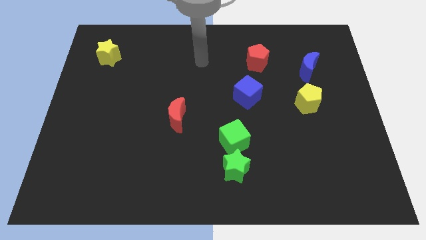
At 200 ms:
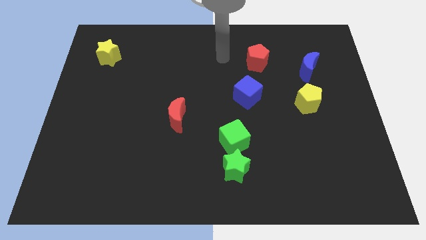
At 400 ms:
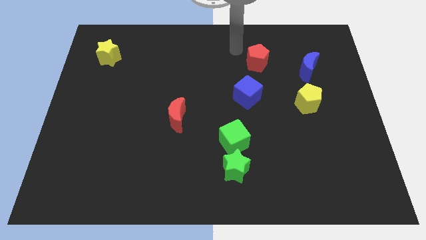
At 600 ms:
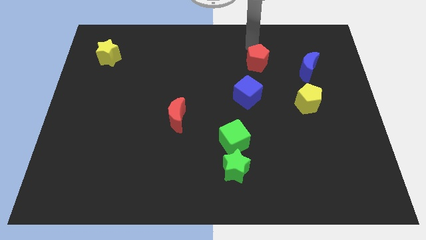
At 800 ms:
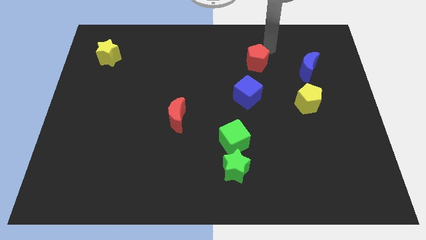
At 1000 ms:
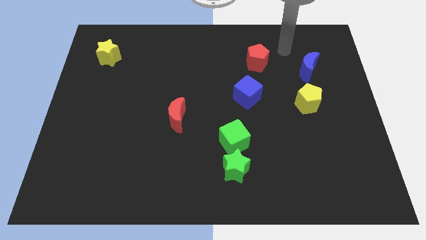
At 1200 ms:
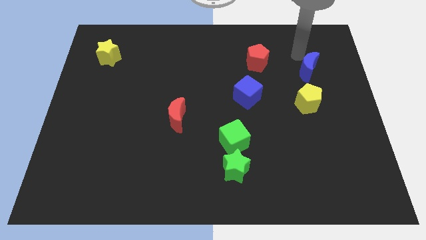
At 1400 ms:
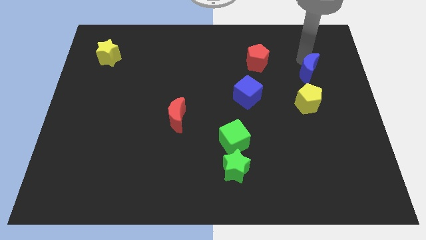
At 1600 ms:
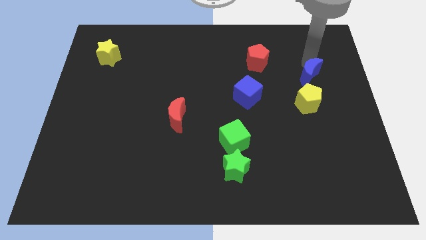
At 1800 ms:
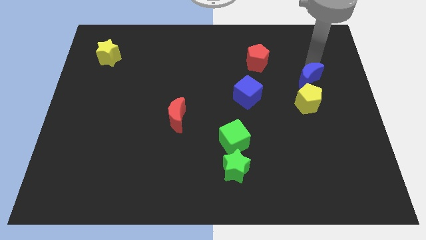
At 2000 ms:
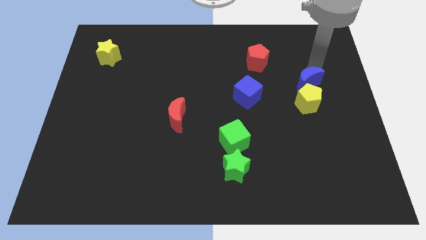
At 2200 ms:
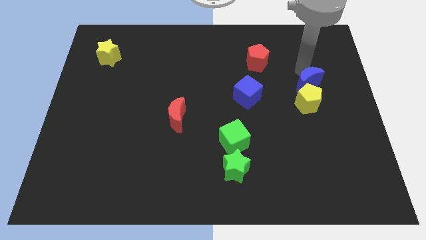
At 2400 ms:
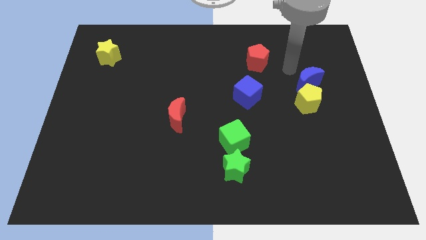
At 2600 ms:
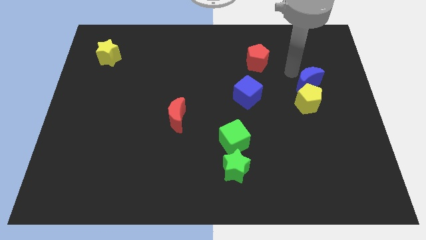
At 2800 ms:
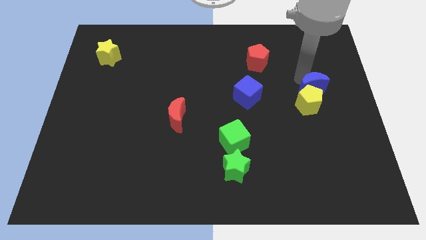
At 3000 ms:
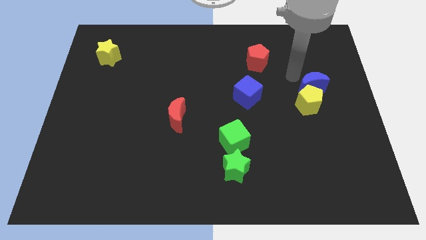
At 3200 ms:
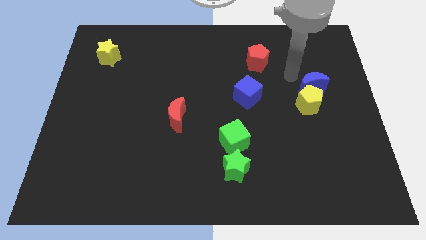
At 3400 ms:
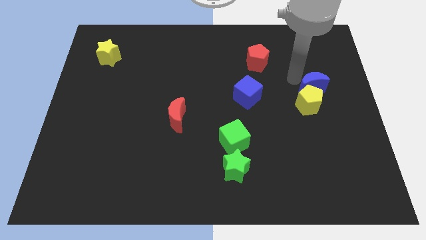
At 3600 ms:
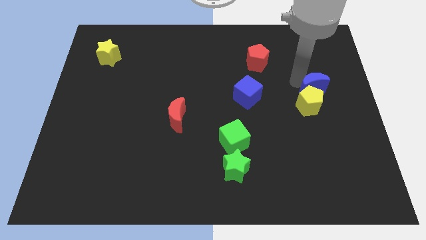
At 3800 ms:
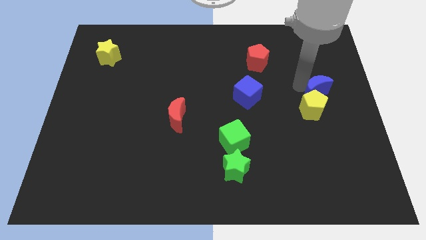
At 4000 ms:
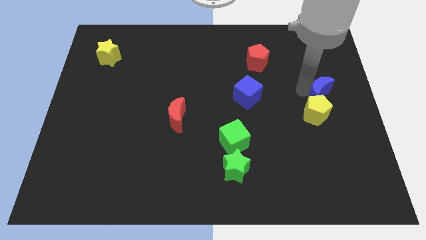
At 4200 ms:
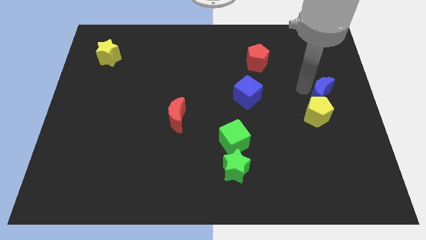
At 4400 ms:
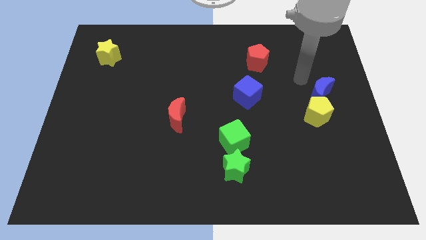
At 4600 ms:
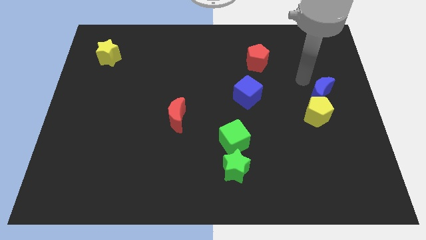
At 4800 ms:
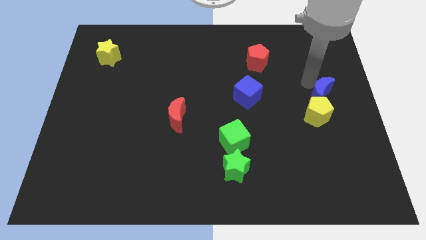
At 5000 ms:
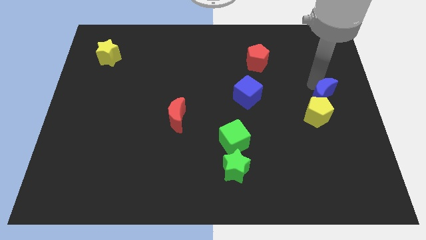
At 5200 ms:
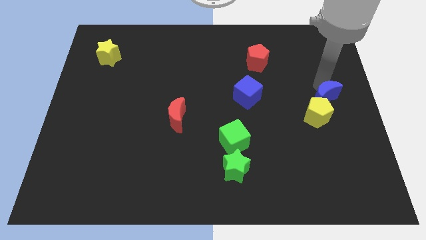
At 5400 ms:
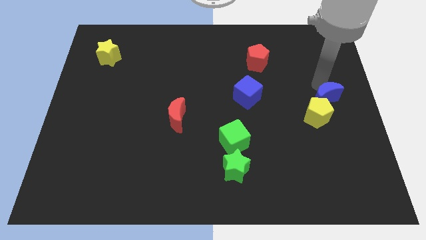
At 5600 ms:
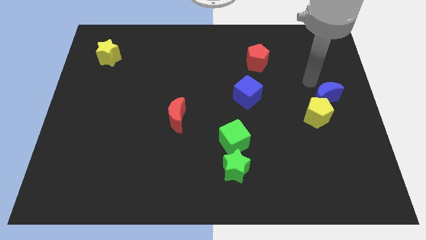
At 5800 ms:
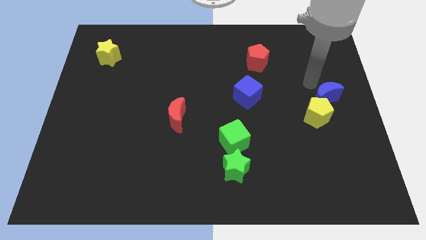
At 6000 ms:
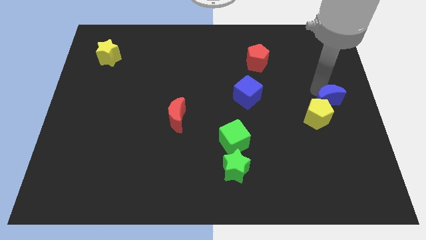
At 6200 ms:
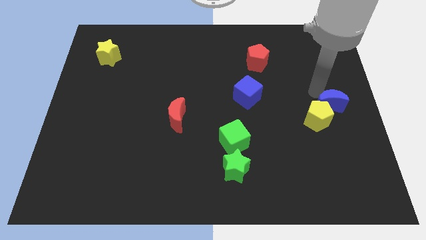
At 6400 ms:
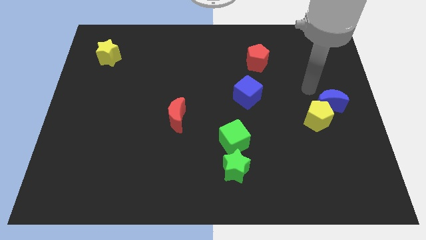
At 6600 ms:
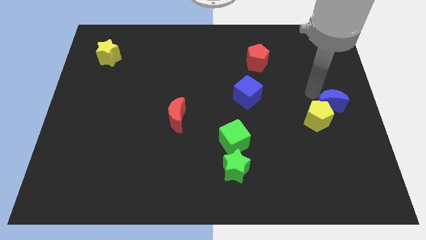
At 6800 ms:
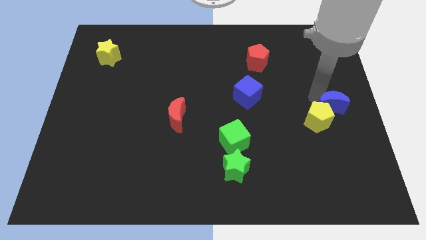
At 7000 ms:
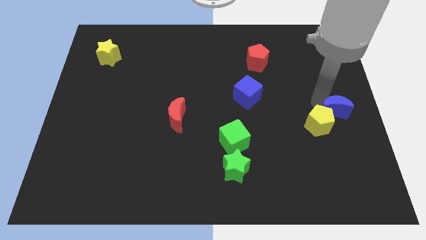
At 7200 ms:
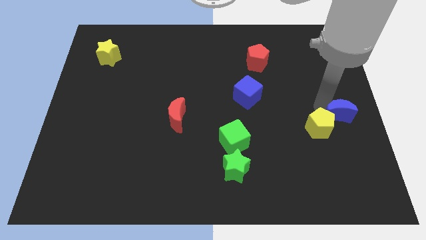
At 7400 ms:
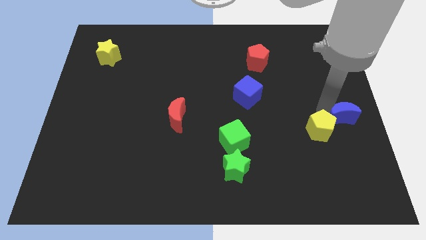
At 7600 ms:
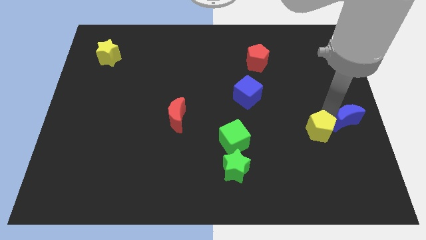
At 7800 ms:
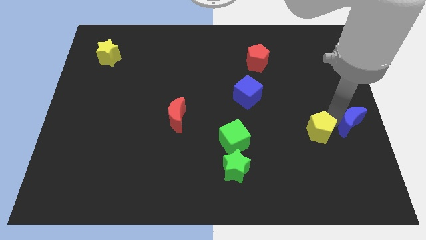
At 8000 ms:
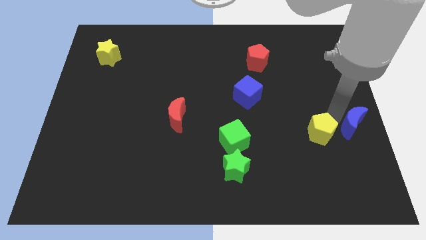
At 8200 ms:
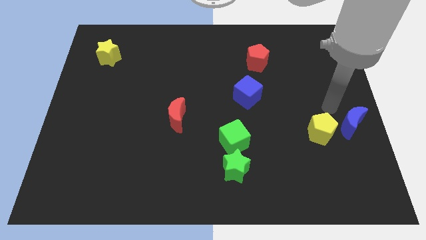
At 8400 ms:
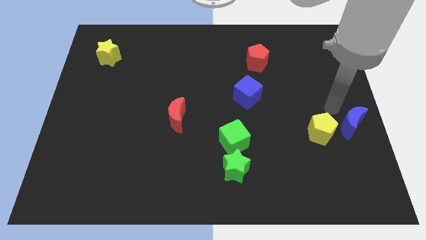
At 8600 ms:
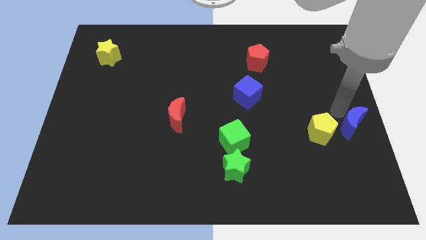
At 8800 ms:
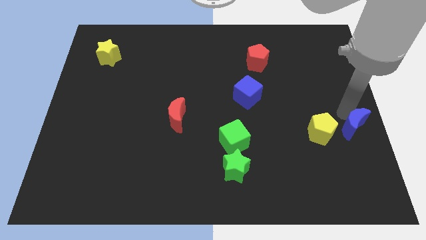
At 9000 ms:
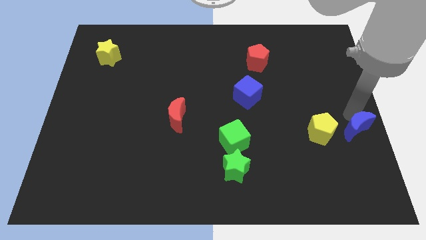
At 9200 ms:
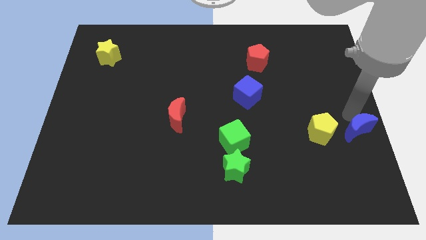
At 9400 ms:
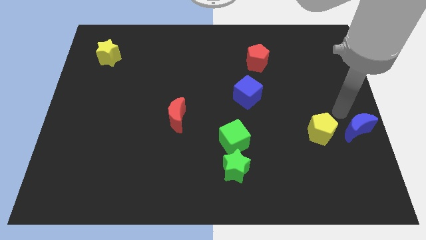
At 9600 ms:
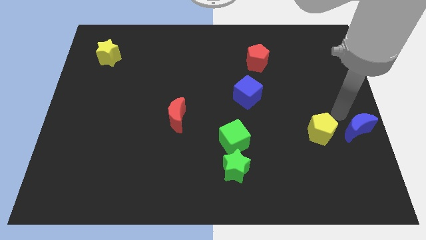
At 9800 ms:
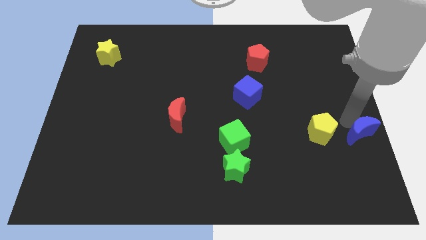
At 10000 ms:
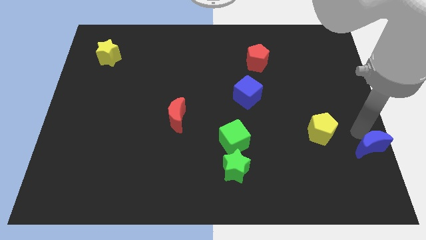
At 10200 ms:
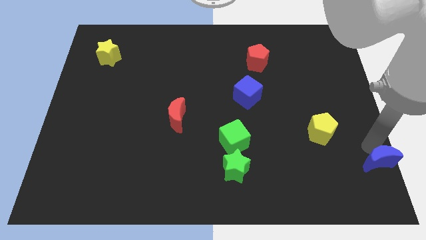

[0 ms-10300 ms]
move the blue moon to the bottom right corner

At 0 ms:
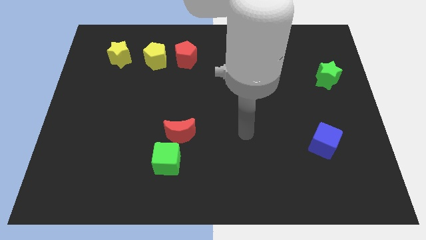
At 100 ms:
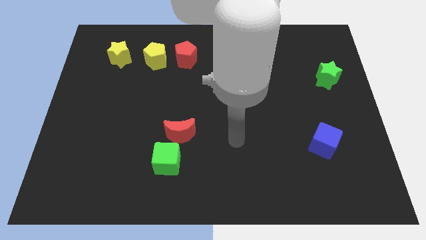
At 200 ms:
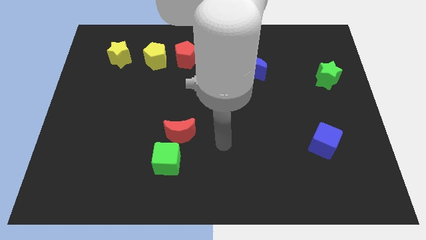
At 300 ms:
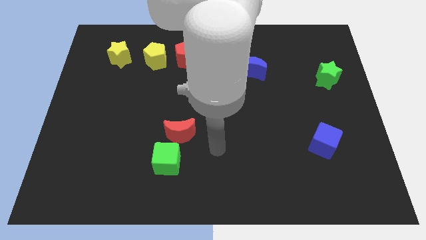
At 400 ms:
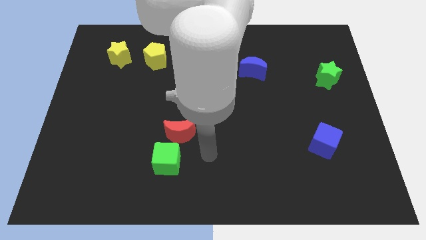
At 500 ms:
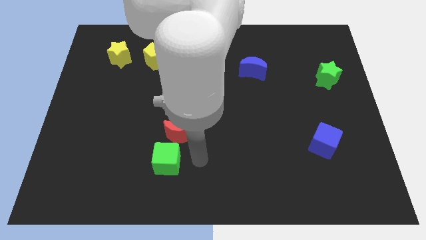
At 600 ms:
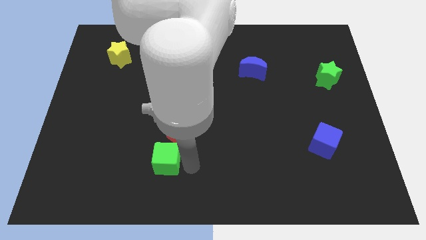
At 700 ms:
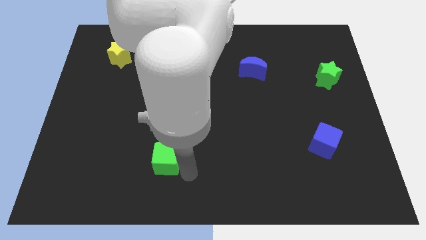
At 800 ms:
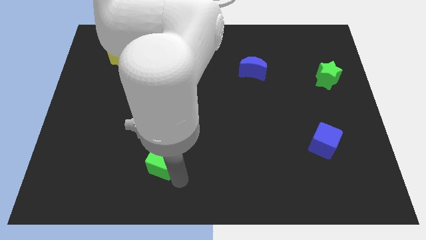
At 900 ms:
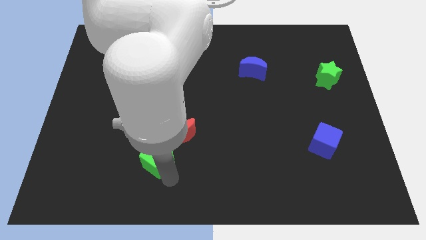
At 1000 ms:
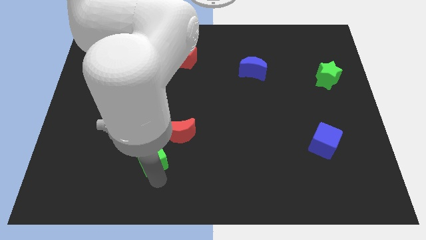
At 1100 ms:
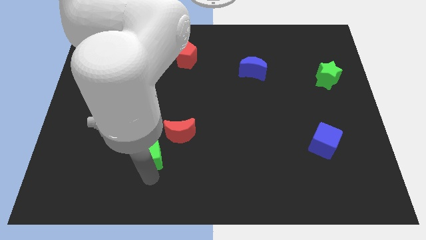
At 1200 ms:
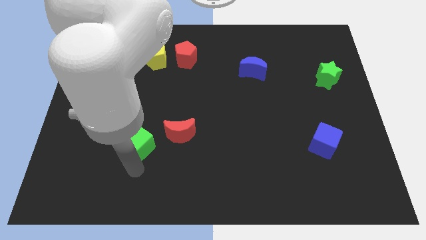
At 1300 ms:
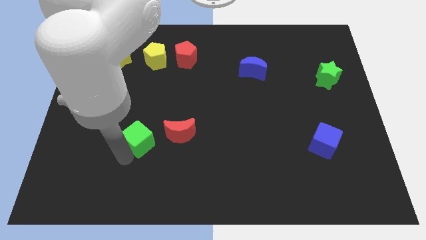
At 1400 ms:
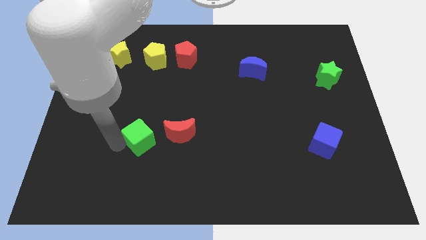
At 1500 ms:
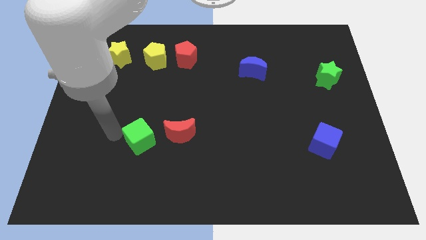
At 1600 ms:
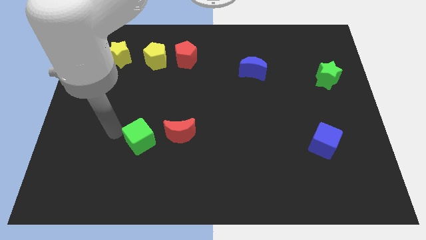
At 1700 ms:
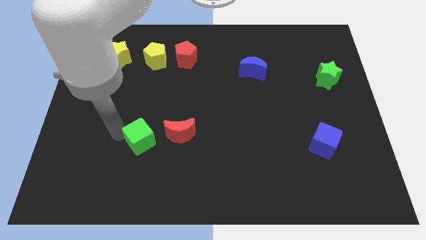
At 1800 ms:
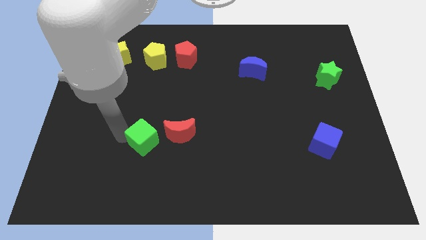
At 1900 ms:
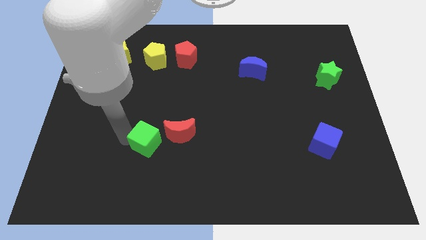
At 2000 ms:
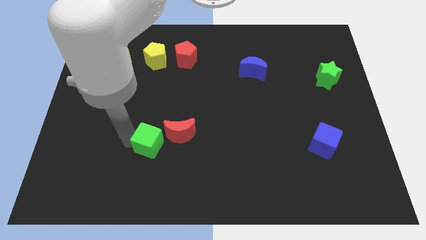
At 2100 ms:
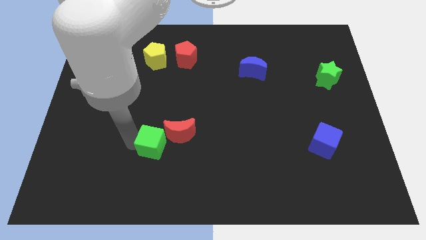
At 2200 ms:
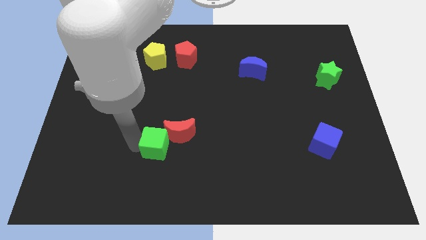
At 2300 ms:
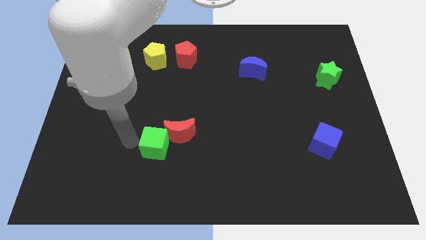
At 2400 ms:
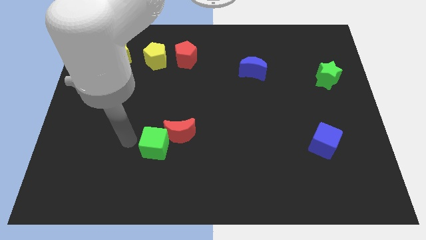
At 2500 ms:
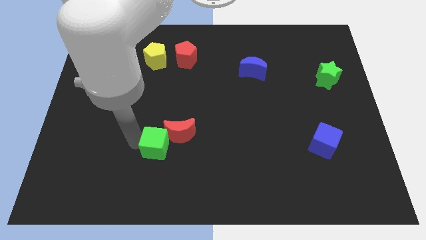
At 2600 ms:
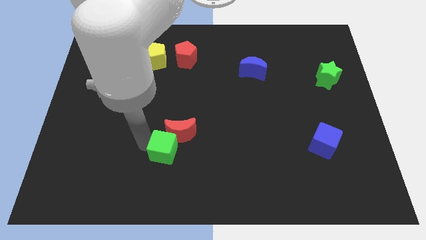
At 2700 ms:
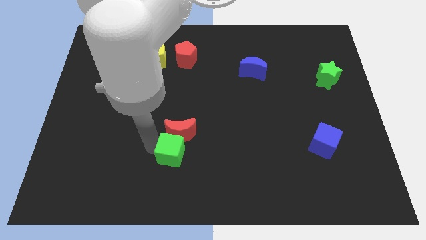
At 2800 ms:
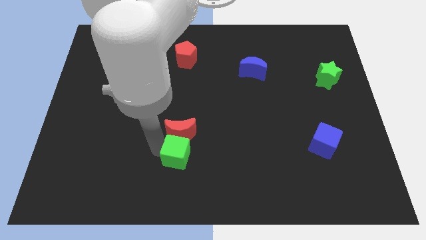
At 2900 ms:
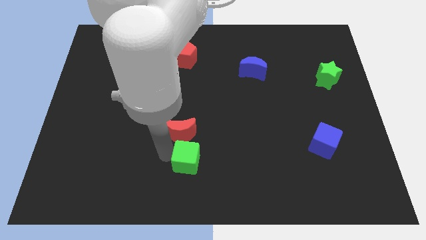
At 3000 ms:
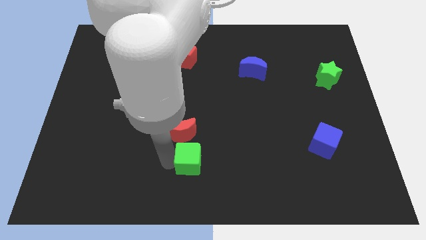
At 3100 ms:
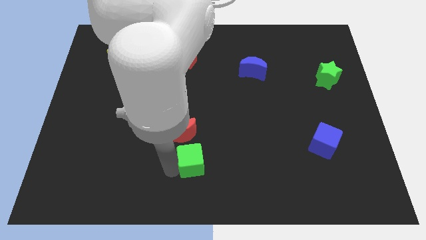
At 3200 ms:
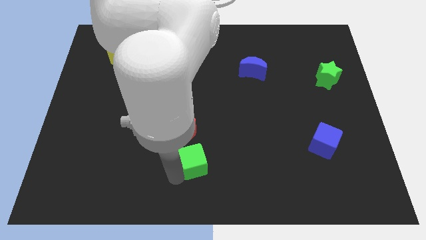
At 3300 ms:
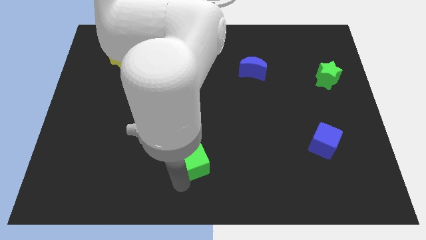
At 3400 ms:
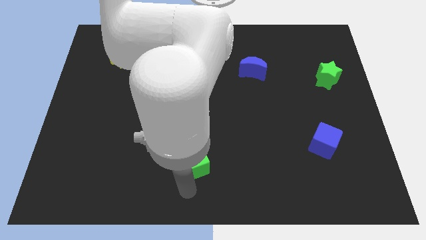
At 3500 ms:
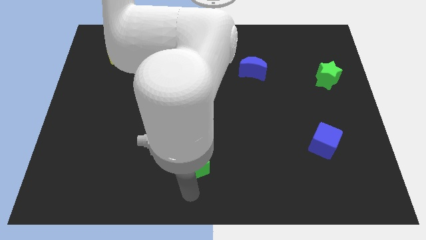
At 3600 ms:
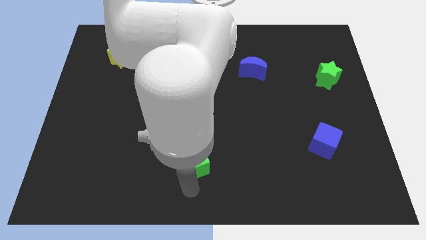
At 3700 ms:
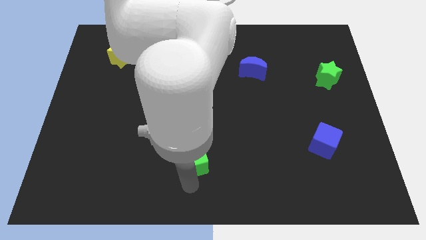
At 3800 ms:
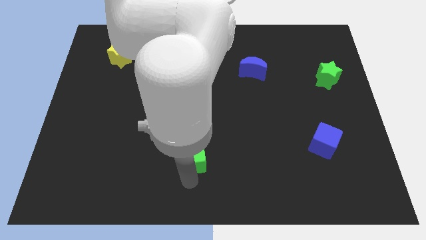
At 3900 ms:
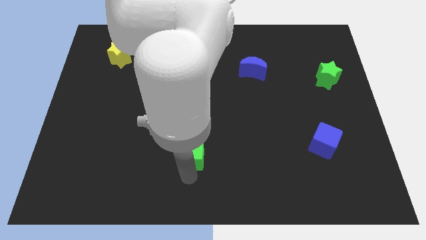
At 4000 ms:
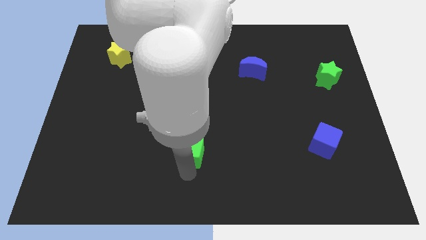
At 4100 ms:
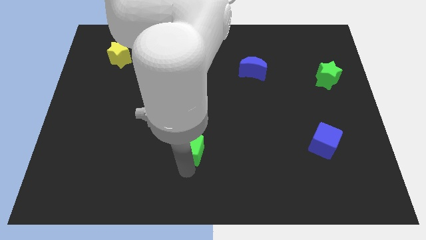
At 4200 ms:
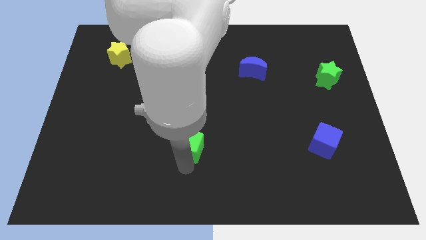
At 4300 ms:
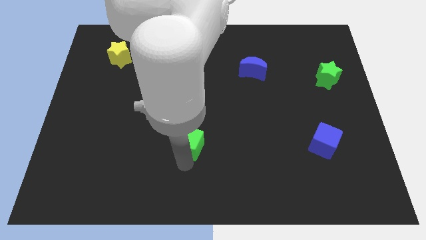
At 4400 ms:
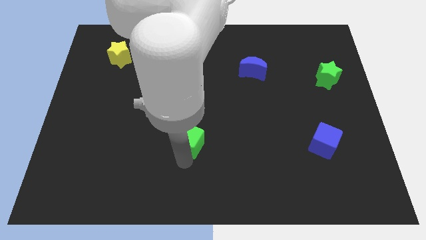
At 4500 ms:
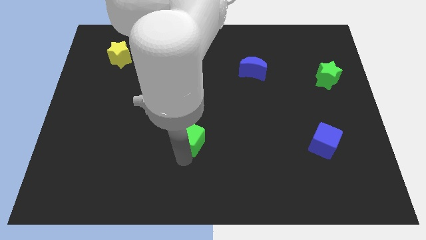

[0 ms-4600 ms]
push the green cube to the center
